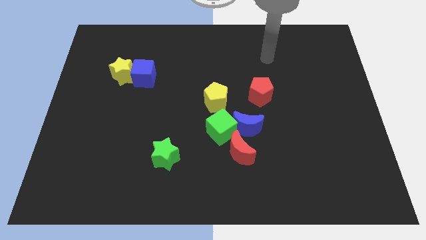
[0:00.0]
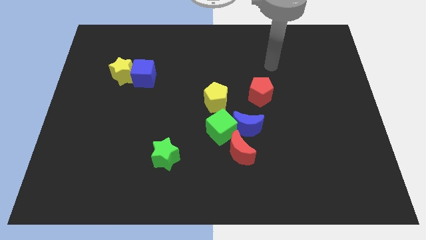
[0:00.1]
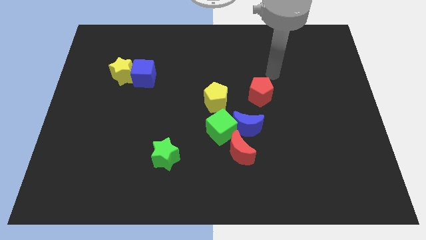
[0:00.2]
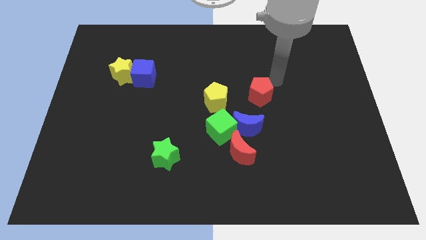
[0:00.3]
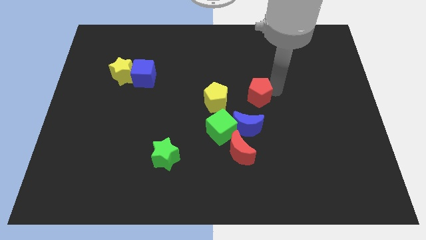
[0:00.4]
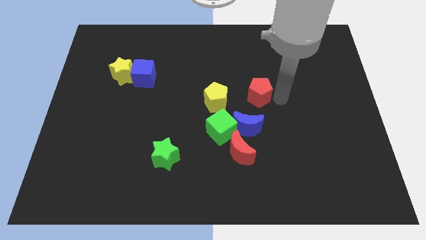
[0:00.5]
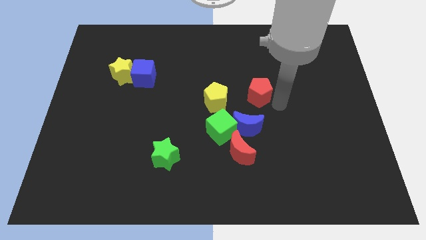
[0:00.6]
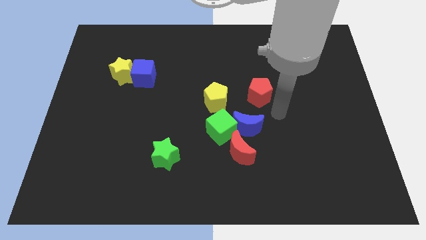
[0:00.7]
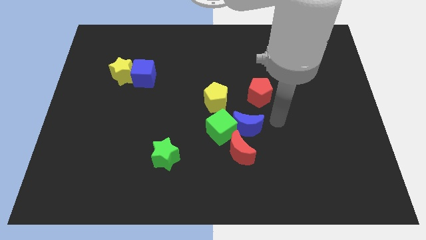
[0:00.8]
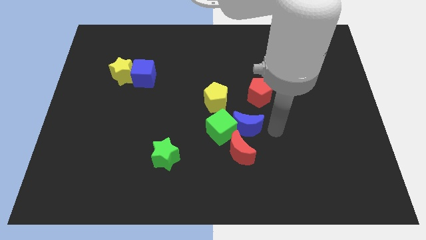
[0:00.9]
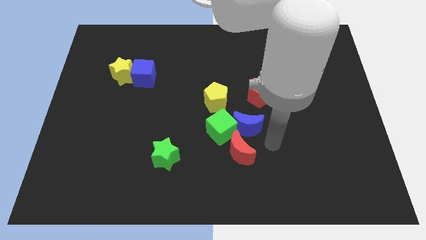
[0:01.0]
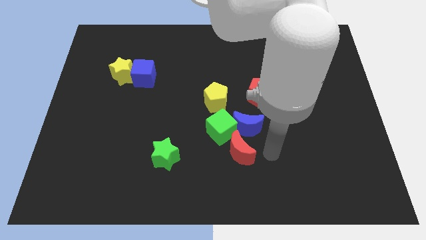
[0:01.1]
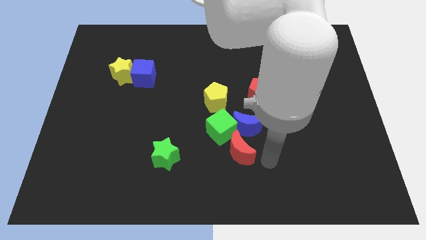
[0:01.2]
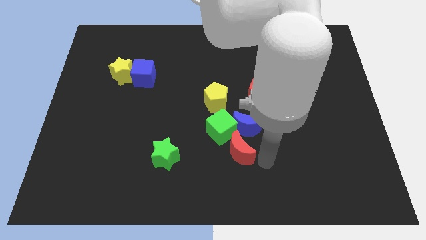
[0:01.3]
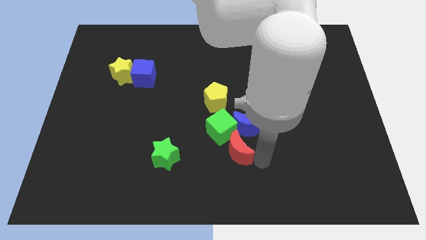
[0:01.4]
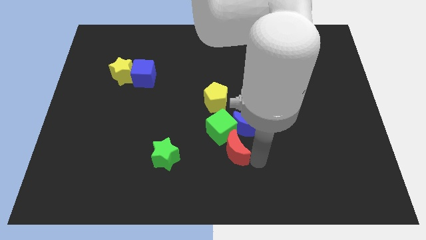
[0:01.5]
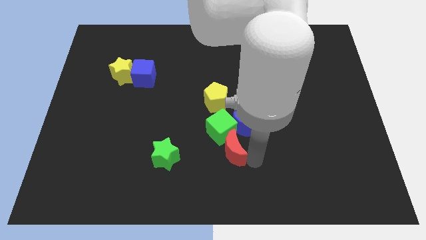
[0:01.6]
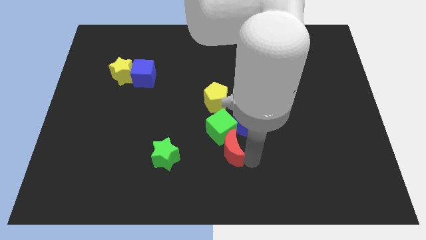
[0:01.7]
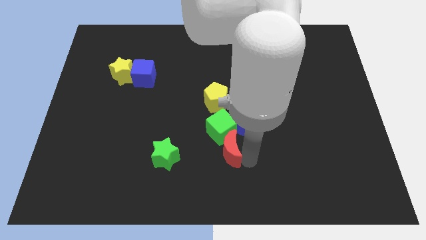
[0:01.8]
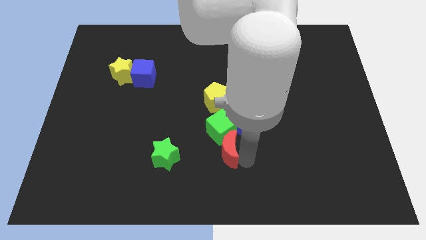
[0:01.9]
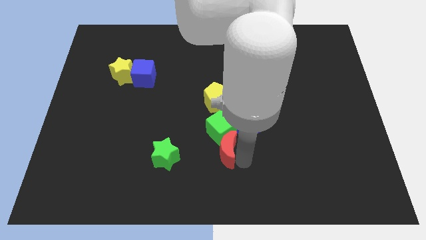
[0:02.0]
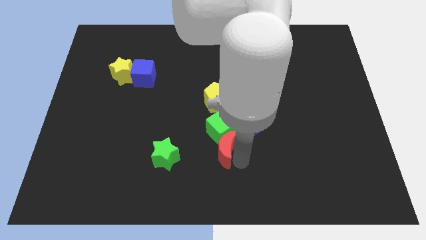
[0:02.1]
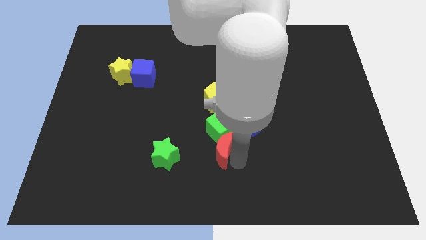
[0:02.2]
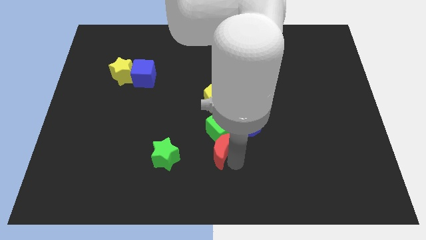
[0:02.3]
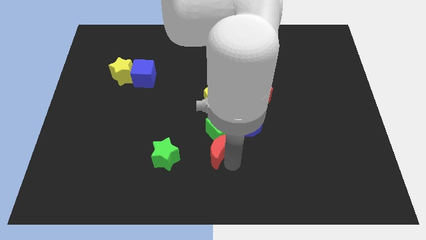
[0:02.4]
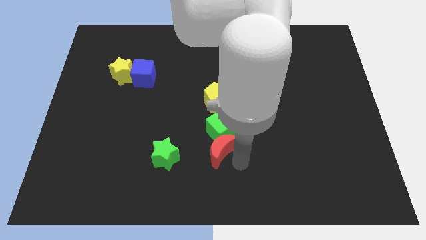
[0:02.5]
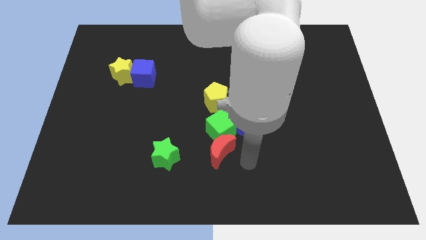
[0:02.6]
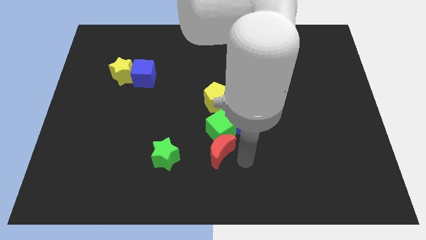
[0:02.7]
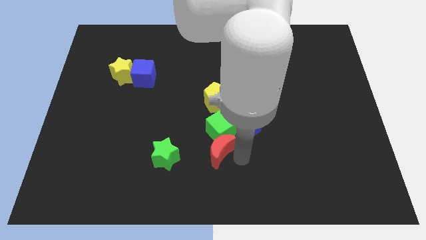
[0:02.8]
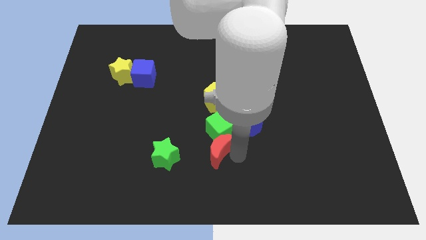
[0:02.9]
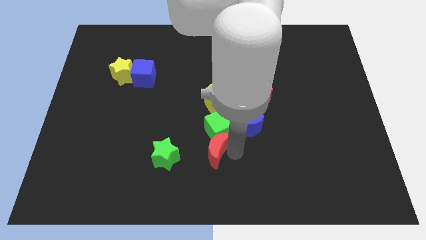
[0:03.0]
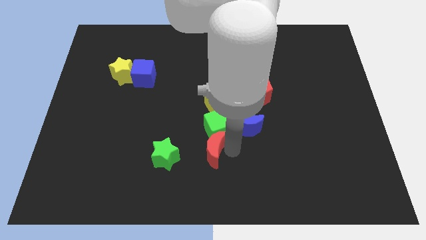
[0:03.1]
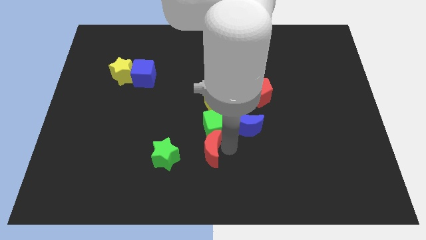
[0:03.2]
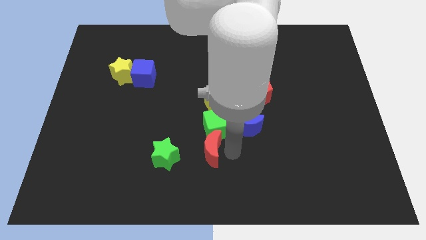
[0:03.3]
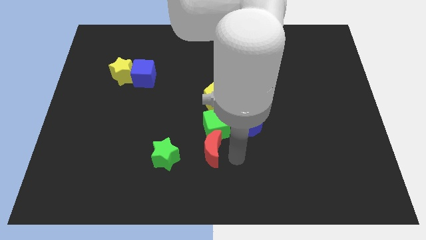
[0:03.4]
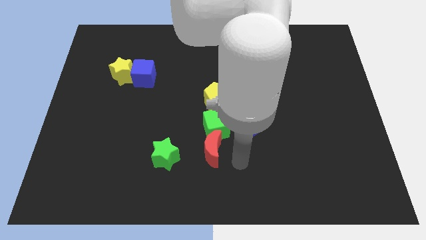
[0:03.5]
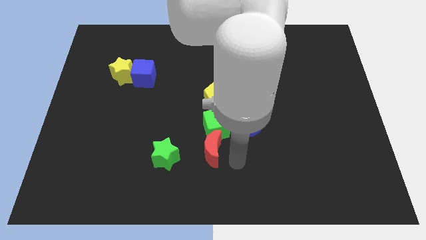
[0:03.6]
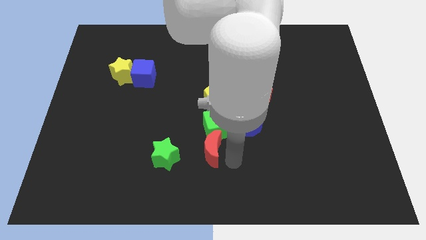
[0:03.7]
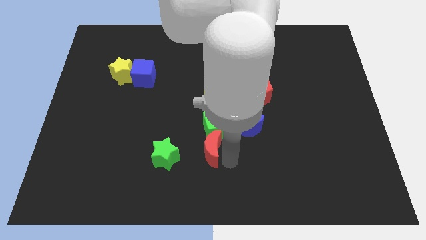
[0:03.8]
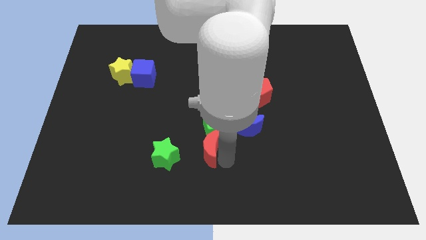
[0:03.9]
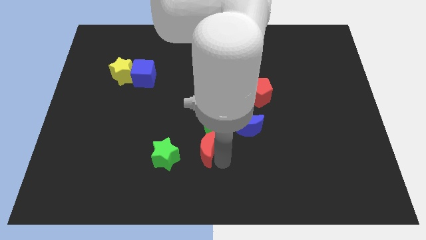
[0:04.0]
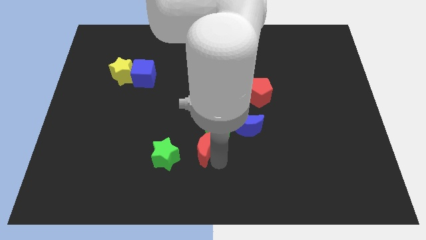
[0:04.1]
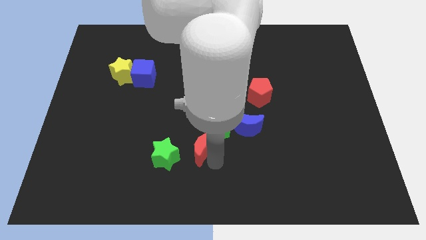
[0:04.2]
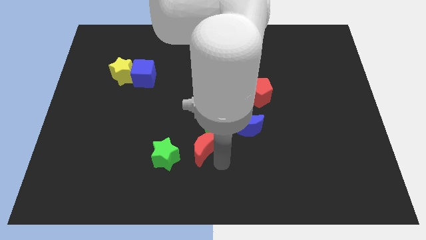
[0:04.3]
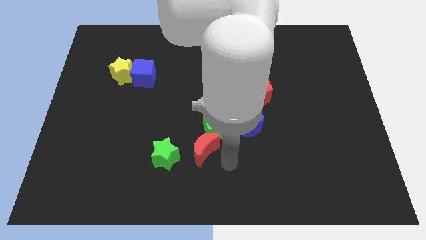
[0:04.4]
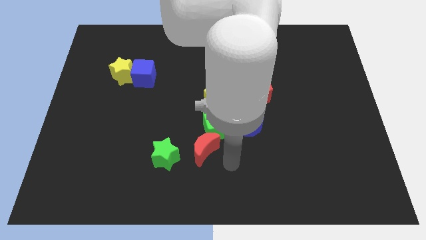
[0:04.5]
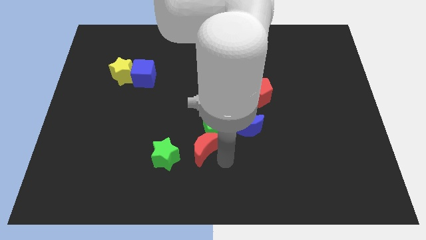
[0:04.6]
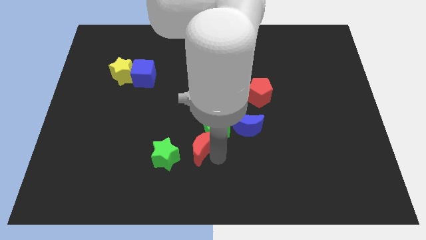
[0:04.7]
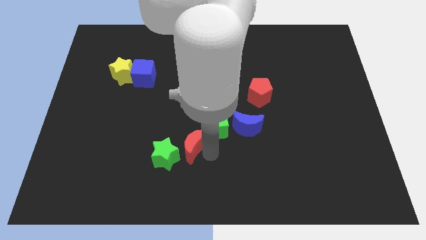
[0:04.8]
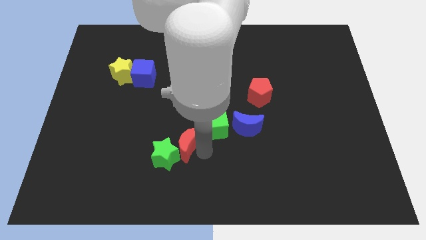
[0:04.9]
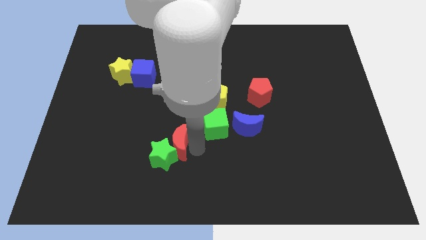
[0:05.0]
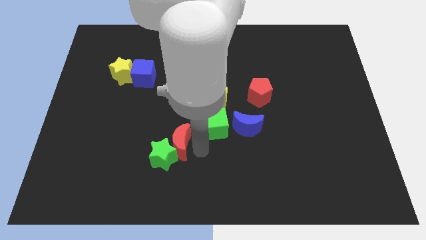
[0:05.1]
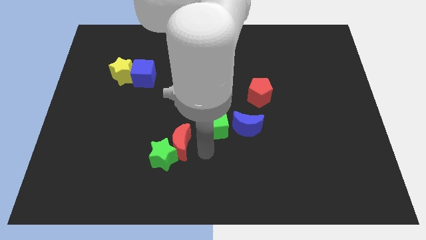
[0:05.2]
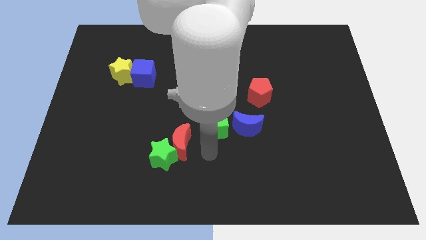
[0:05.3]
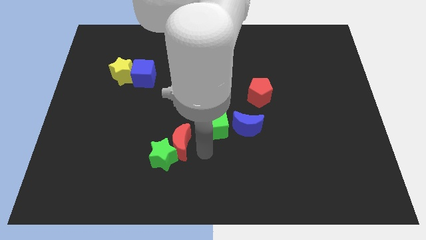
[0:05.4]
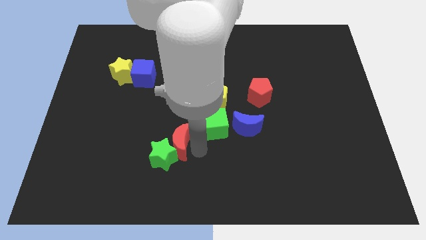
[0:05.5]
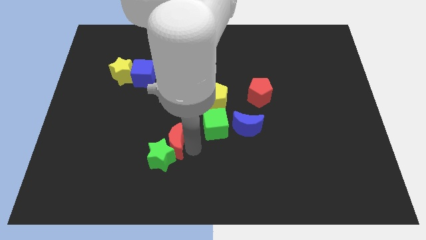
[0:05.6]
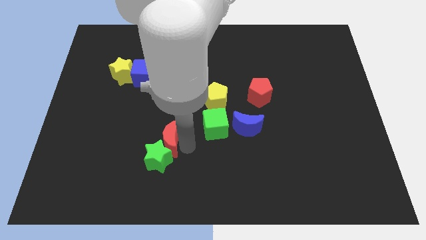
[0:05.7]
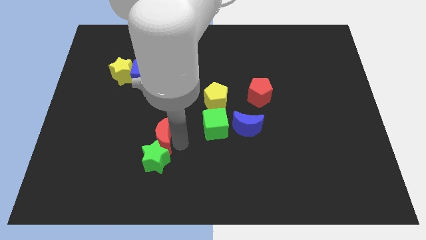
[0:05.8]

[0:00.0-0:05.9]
slide the red moon to the top left of the green star

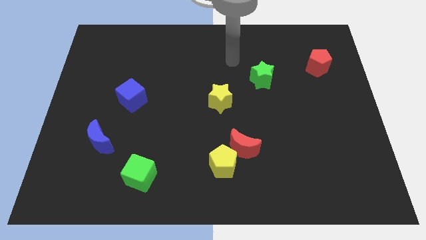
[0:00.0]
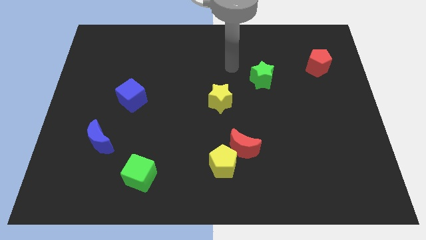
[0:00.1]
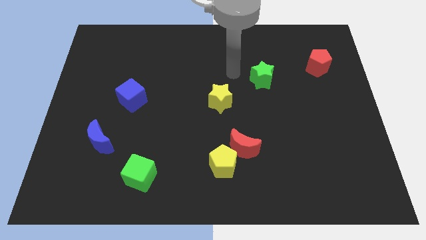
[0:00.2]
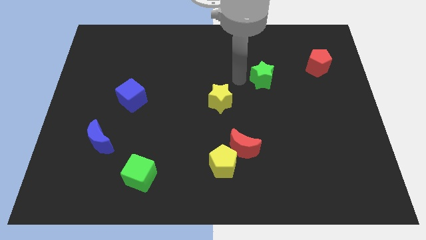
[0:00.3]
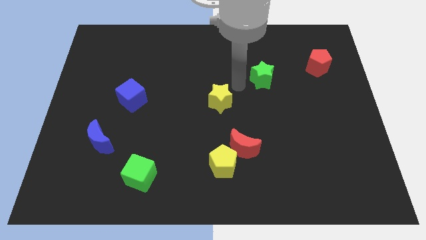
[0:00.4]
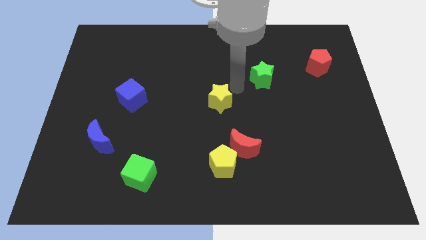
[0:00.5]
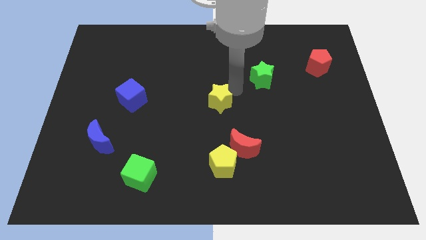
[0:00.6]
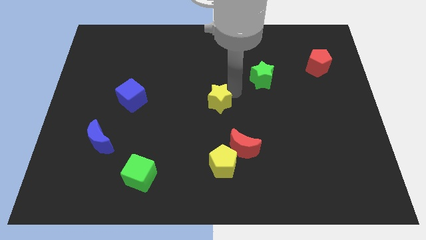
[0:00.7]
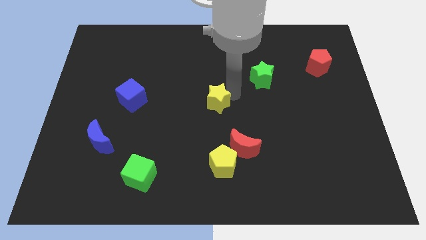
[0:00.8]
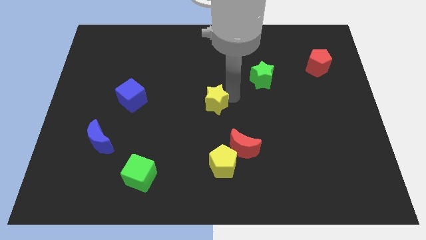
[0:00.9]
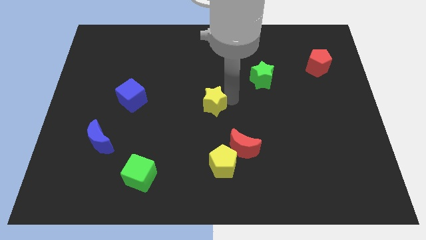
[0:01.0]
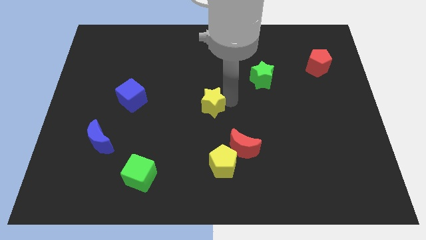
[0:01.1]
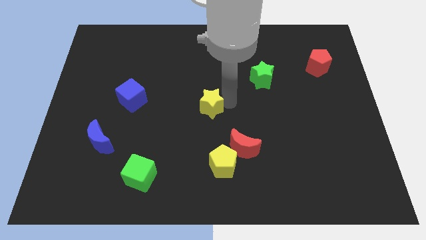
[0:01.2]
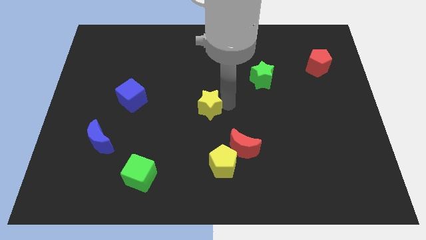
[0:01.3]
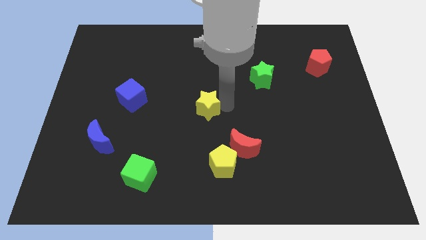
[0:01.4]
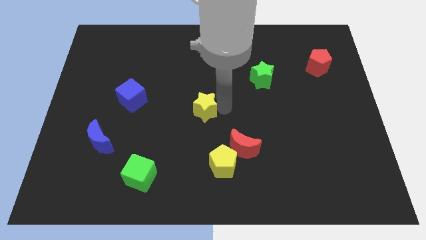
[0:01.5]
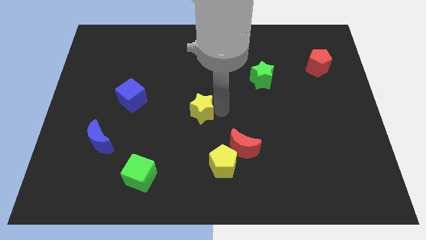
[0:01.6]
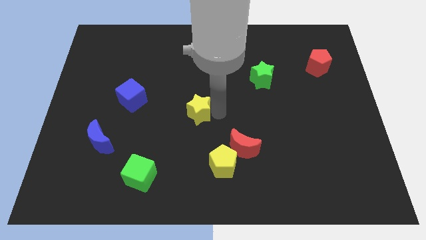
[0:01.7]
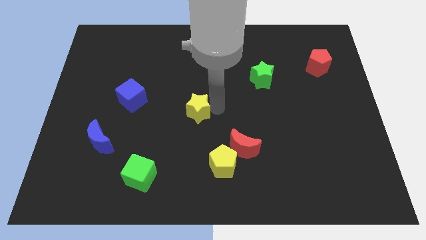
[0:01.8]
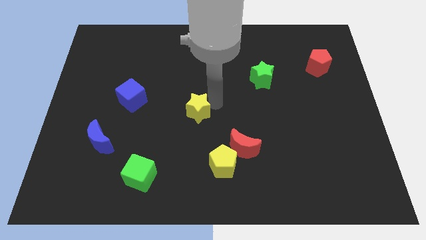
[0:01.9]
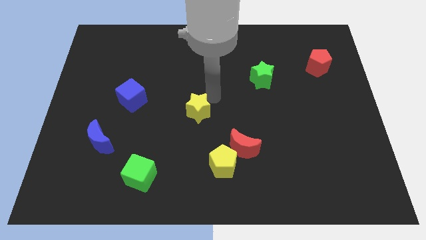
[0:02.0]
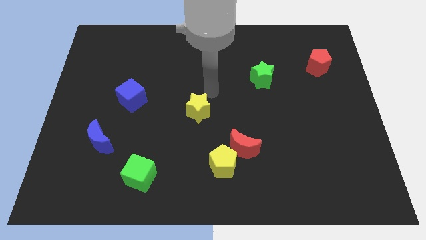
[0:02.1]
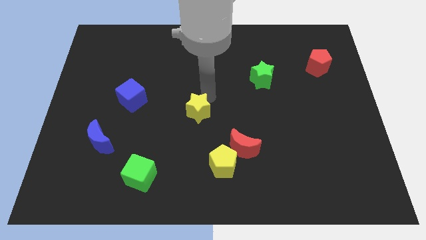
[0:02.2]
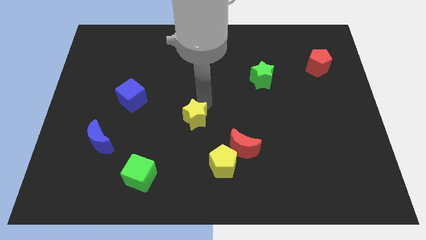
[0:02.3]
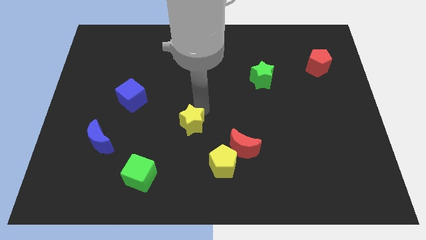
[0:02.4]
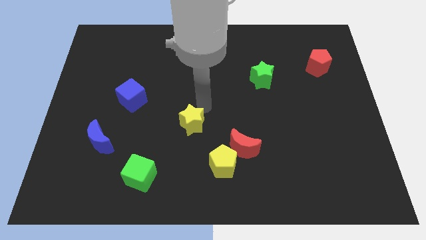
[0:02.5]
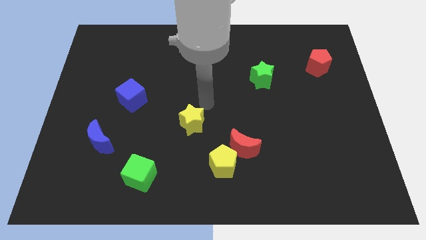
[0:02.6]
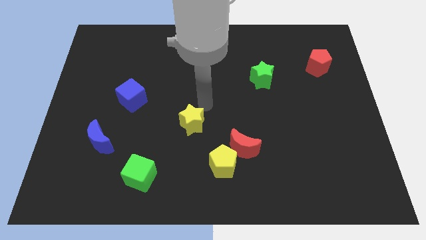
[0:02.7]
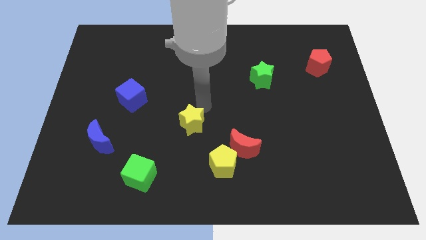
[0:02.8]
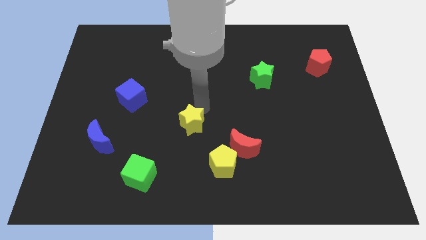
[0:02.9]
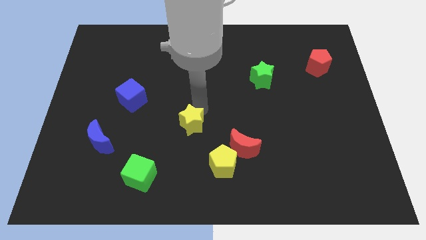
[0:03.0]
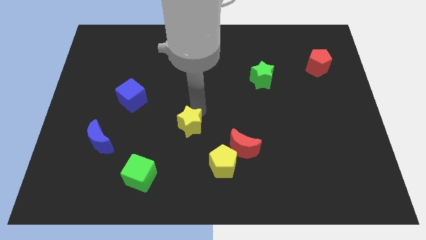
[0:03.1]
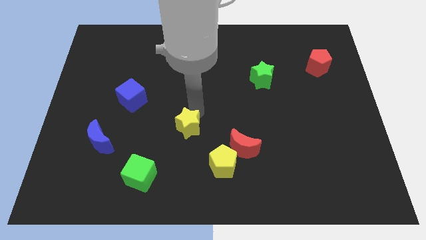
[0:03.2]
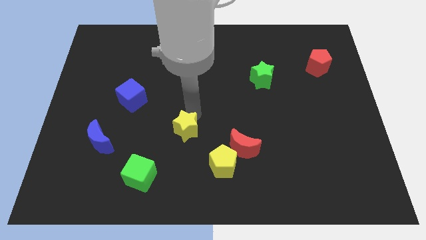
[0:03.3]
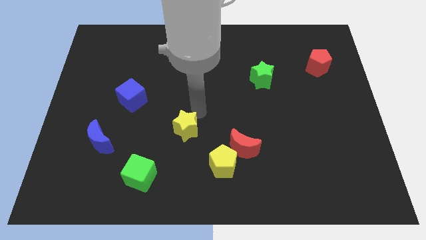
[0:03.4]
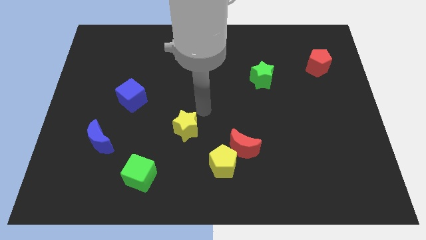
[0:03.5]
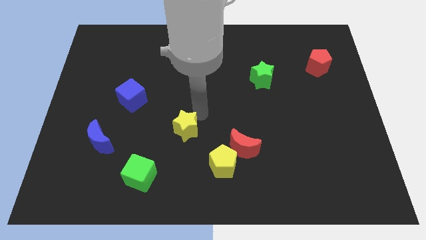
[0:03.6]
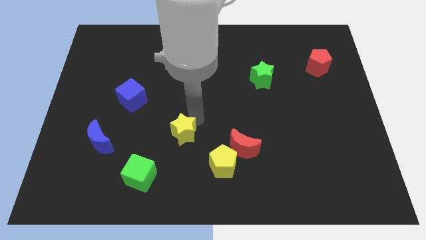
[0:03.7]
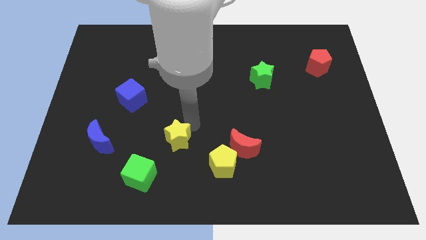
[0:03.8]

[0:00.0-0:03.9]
push the yellow star to the top right of the green cube
